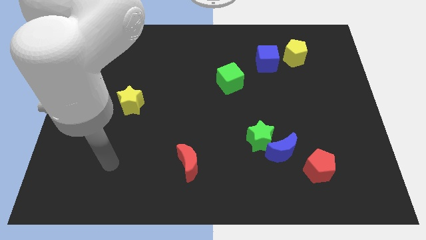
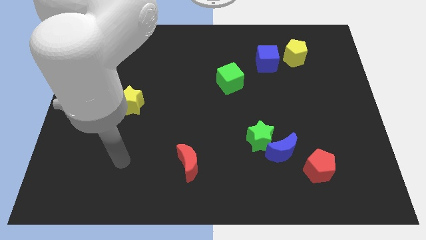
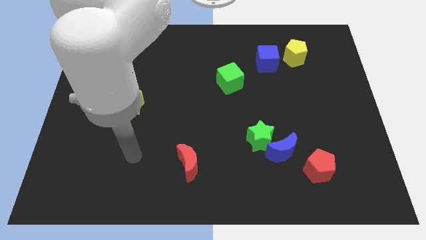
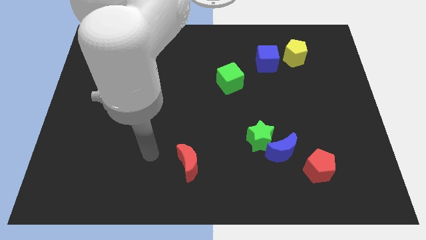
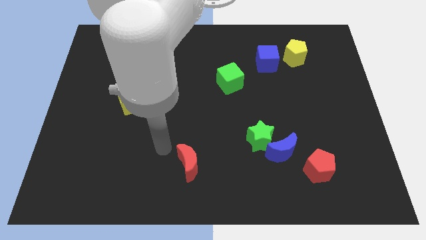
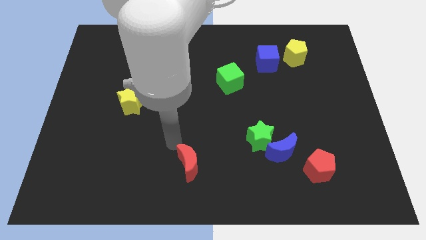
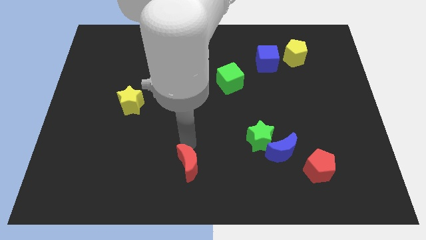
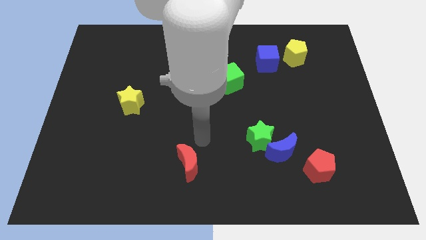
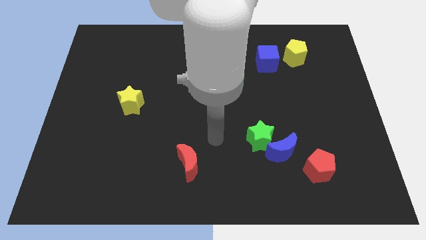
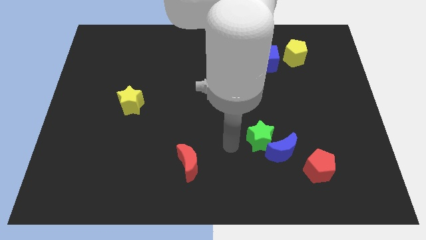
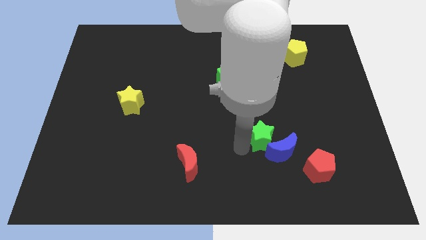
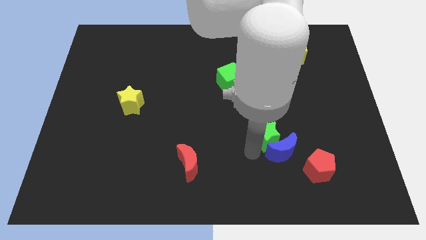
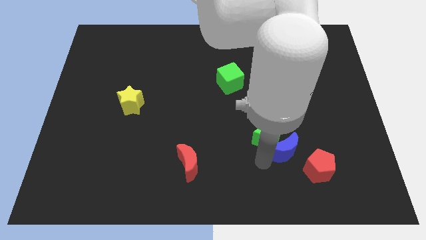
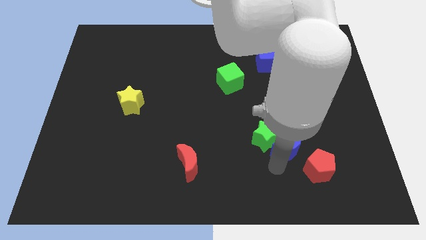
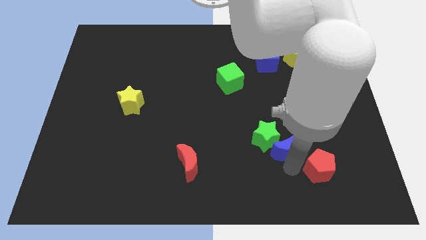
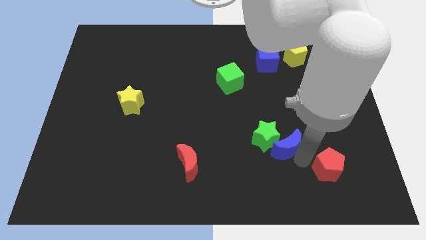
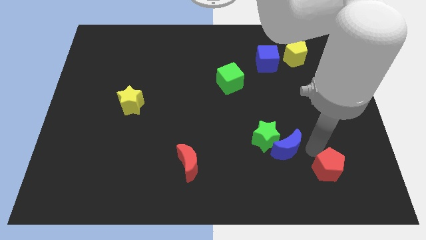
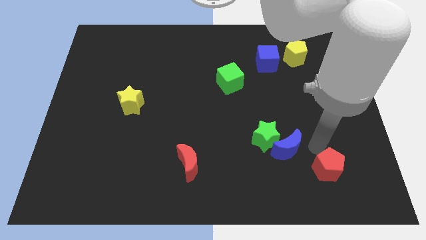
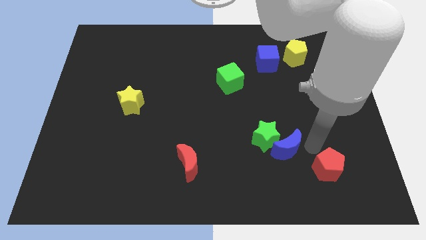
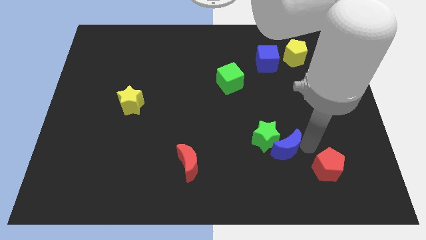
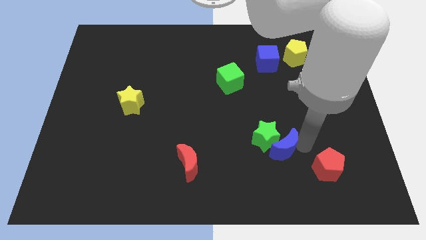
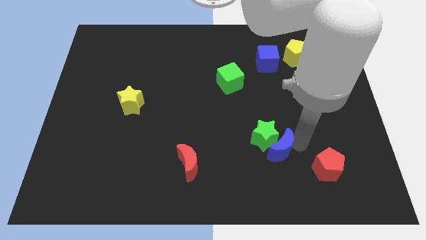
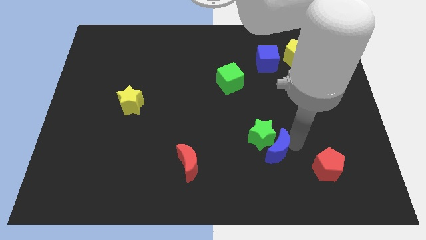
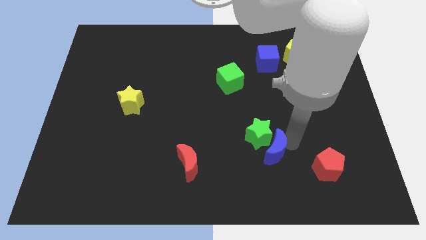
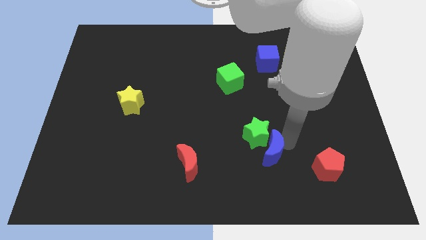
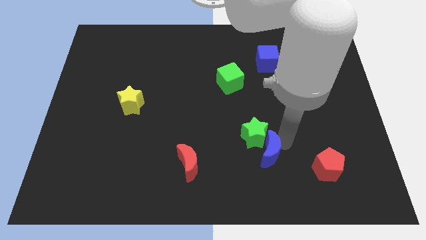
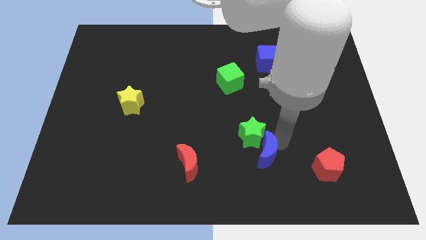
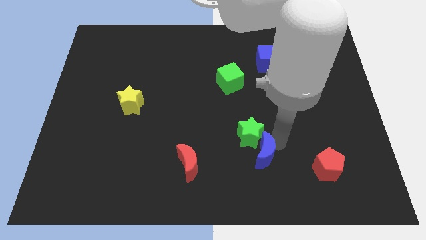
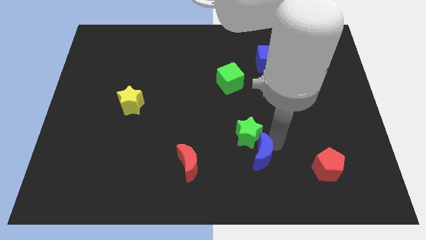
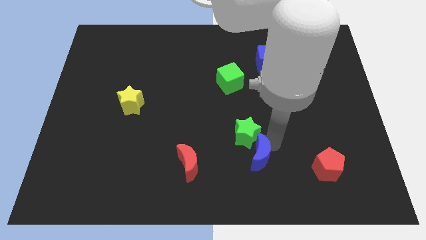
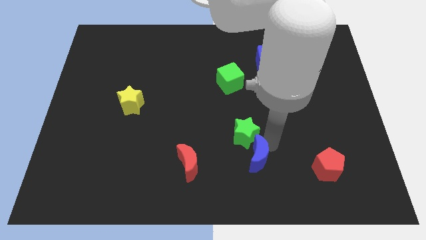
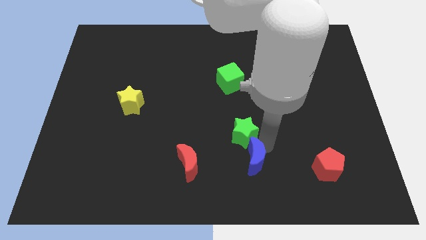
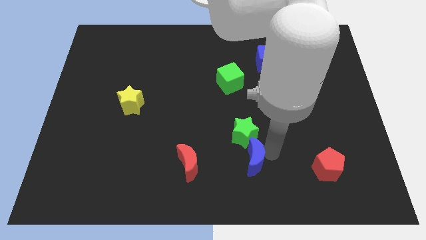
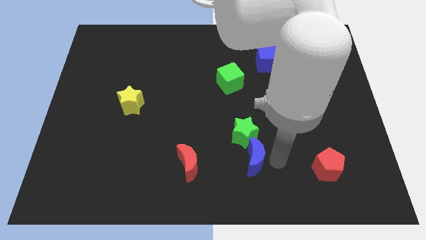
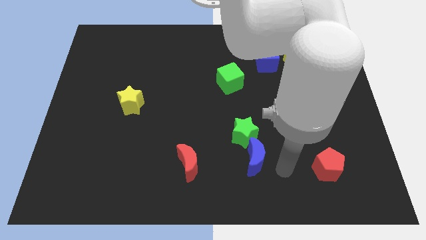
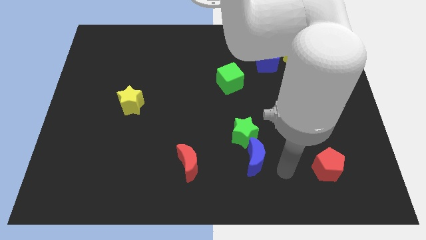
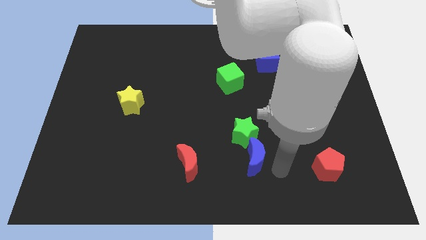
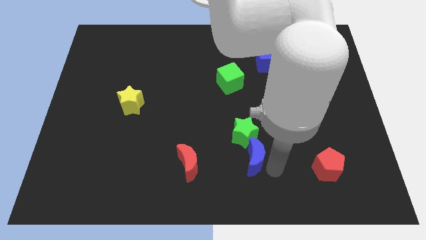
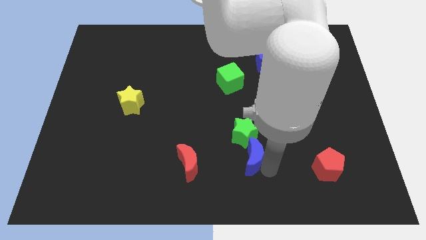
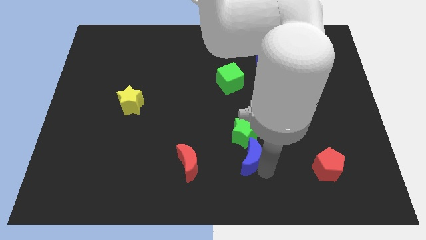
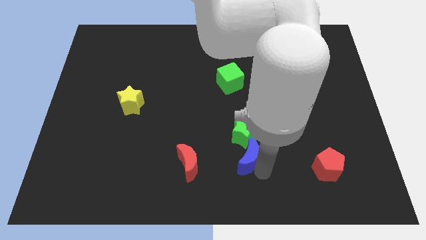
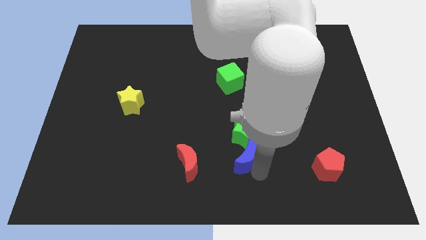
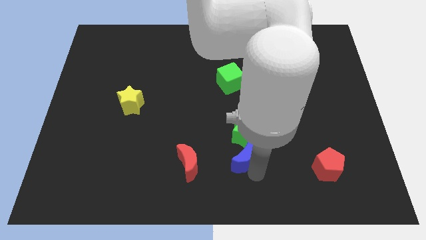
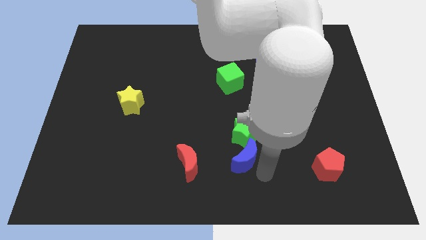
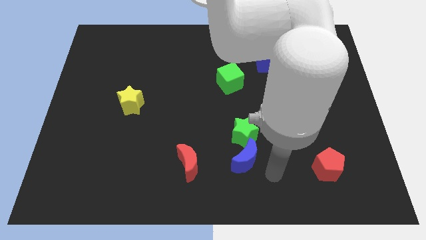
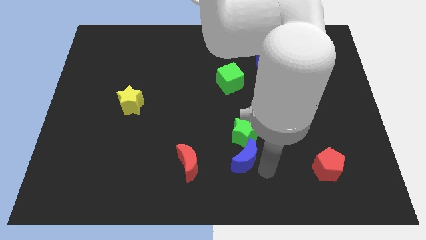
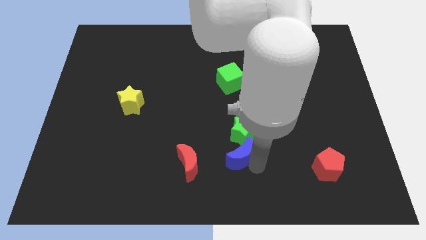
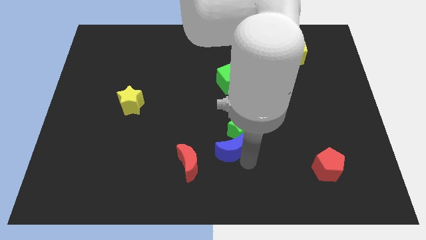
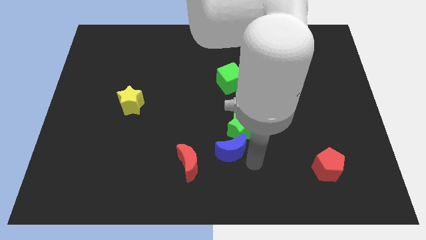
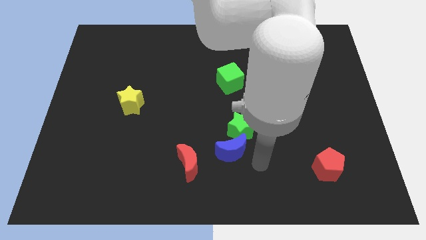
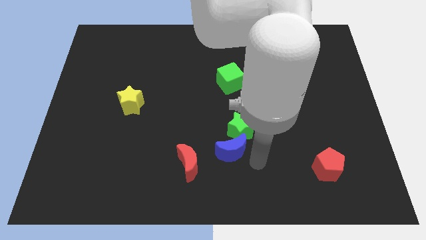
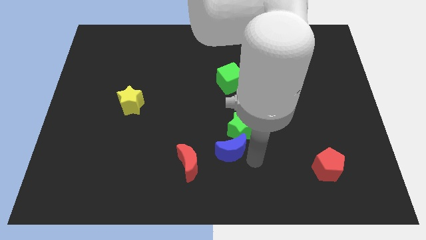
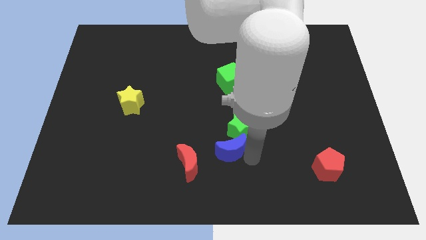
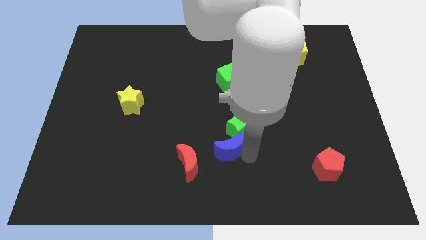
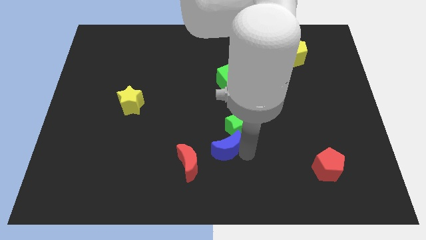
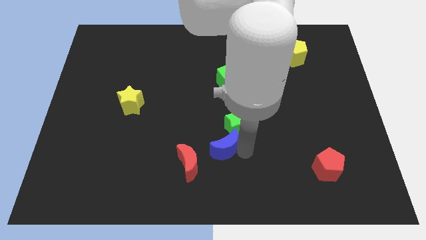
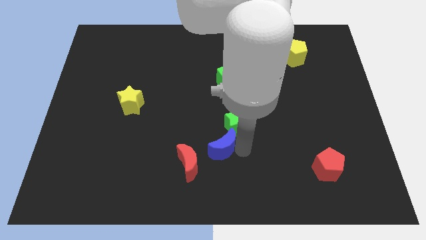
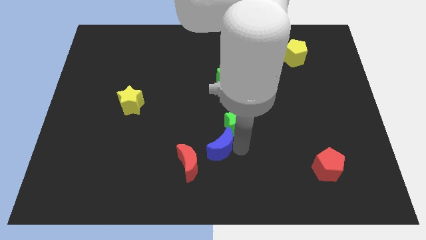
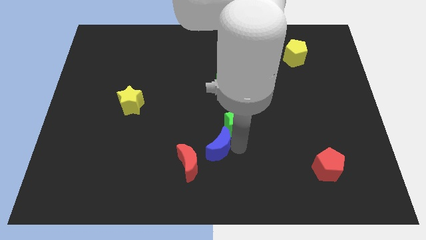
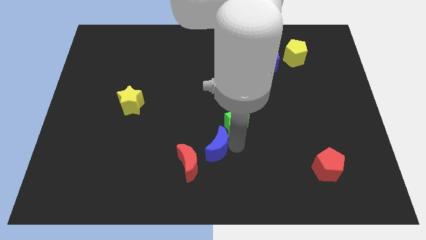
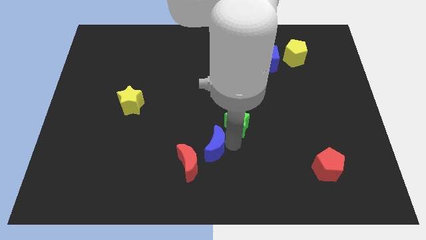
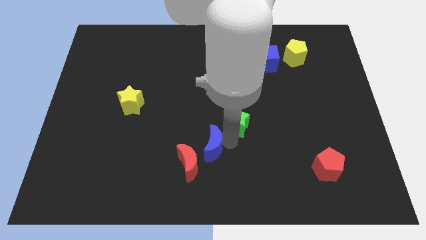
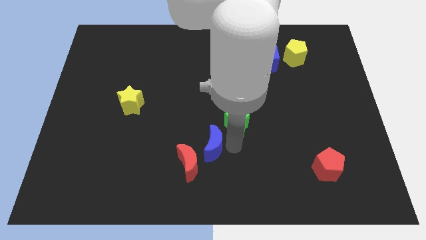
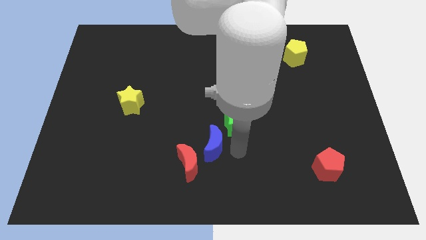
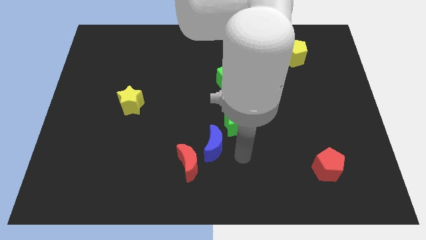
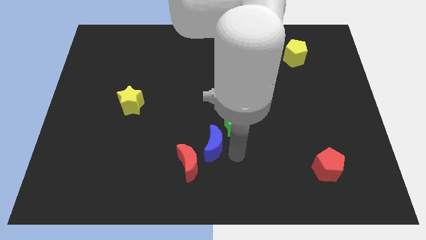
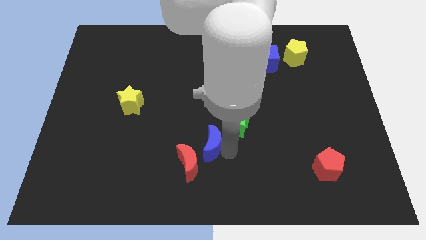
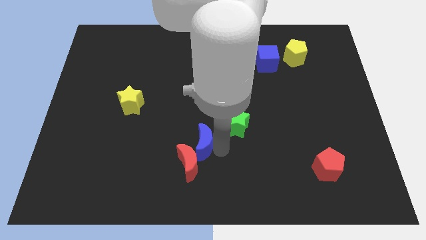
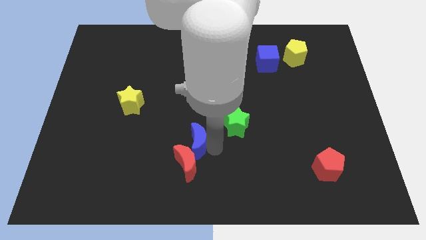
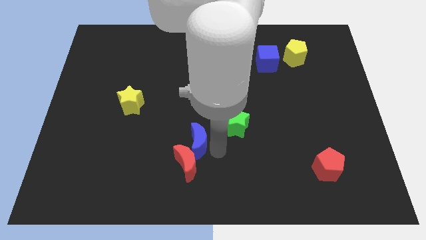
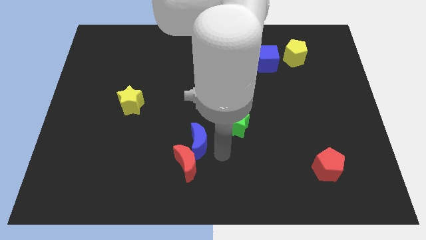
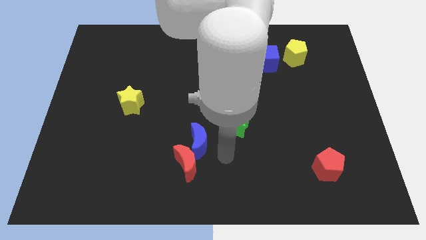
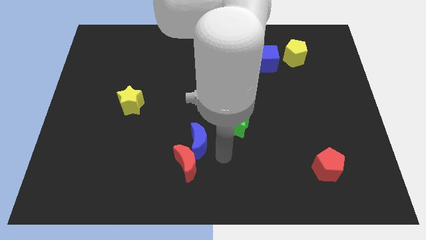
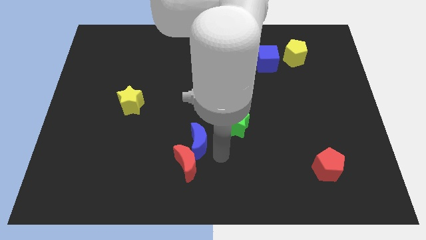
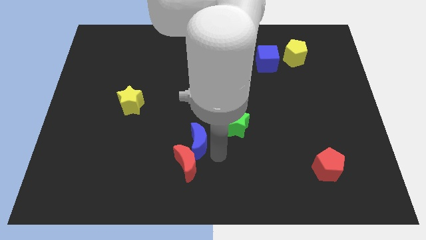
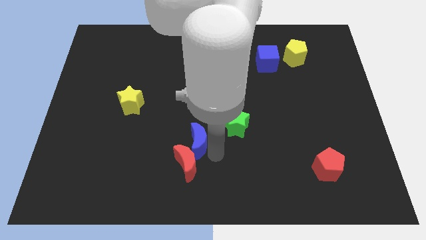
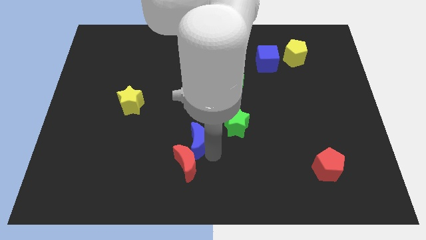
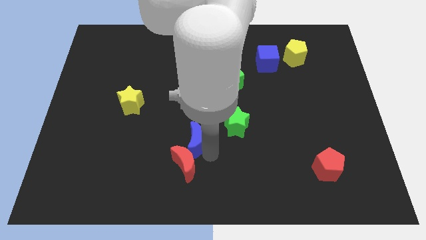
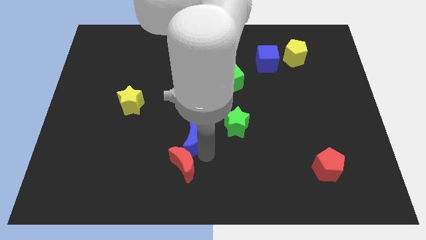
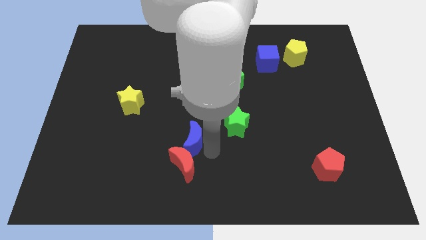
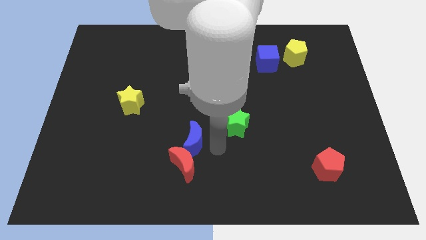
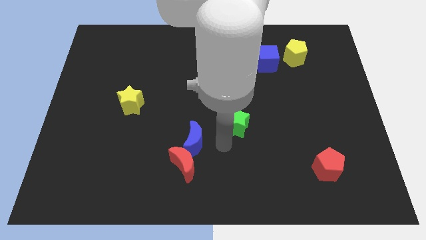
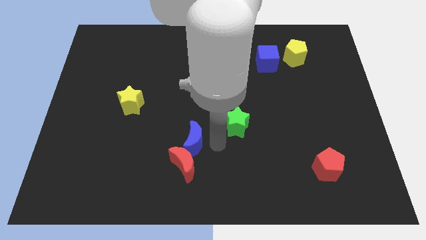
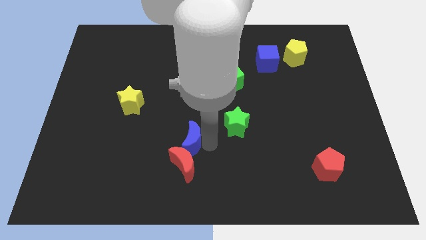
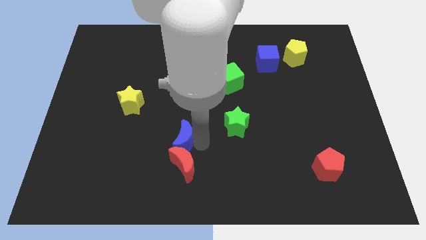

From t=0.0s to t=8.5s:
move the blue moon to the left
